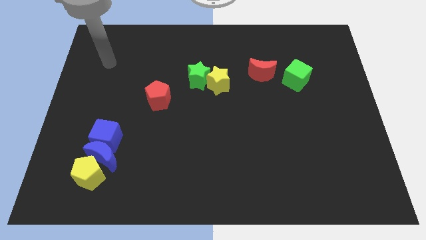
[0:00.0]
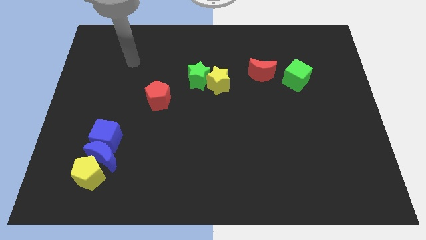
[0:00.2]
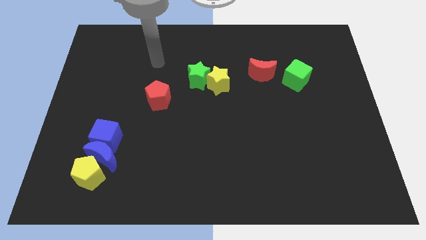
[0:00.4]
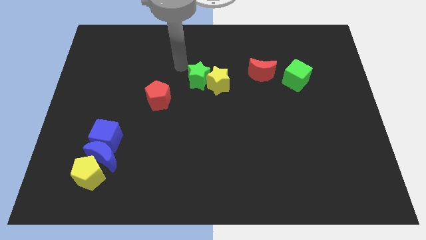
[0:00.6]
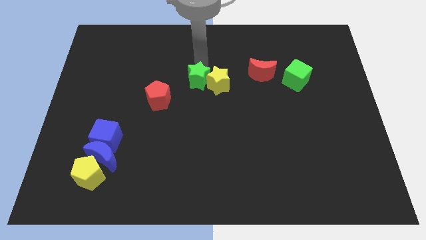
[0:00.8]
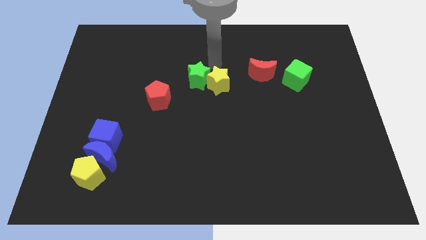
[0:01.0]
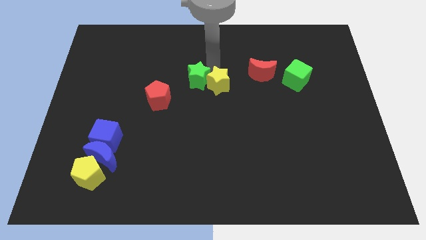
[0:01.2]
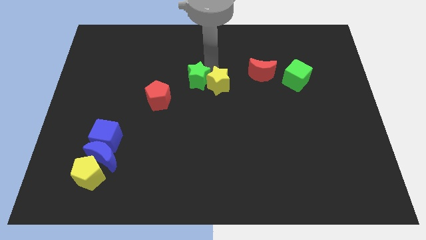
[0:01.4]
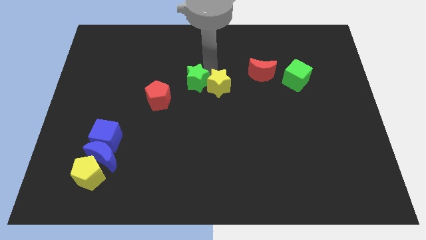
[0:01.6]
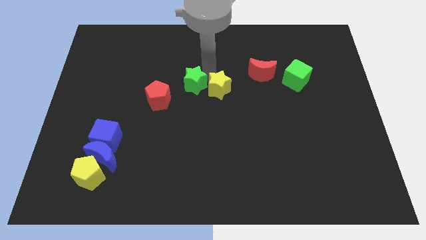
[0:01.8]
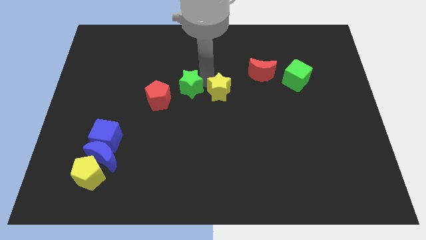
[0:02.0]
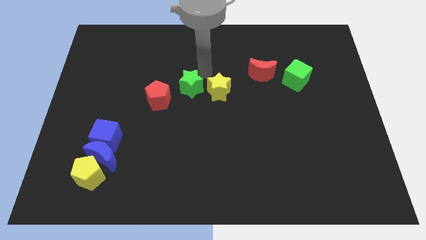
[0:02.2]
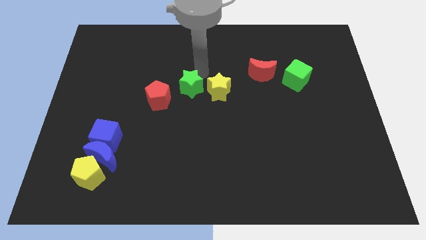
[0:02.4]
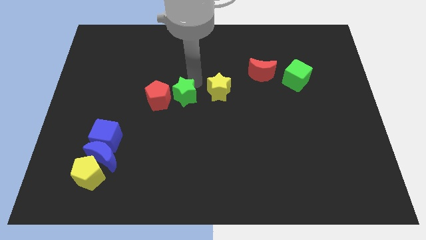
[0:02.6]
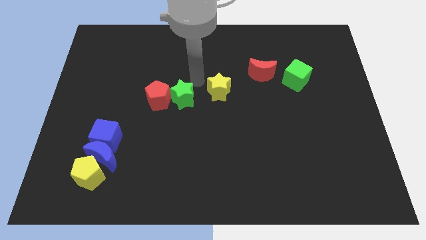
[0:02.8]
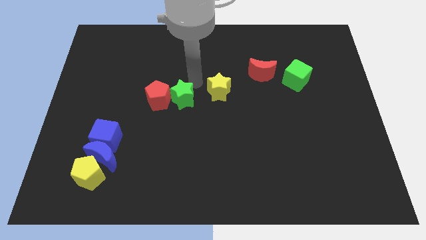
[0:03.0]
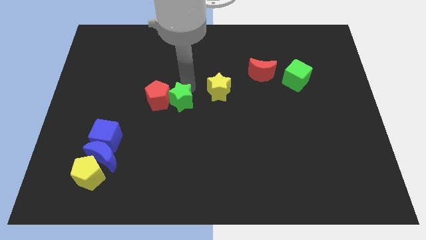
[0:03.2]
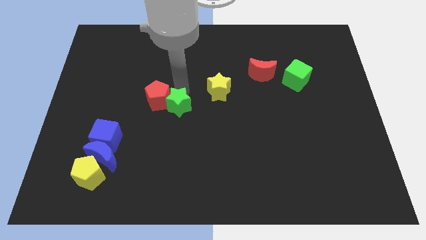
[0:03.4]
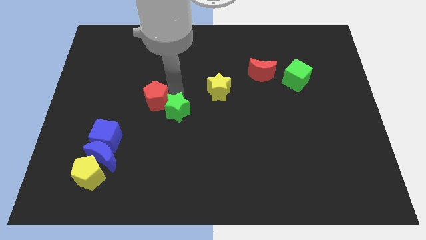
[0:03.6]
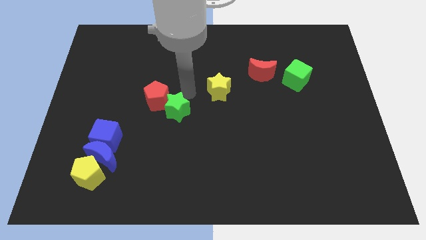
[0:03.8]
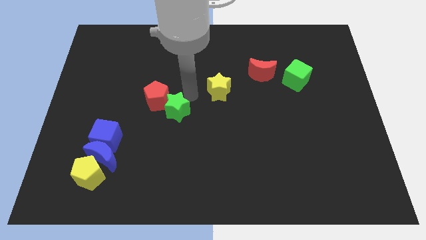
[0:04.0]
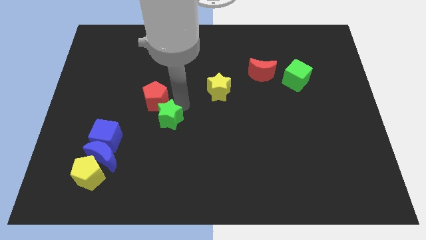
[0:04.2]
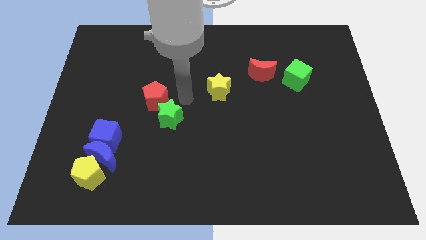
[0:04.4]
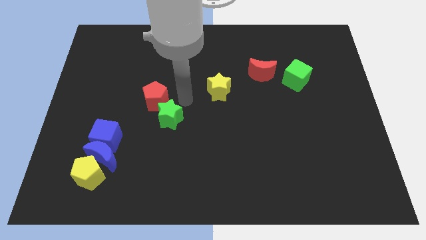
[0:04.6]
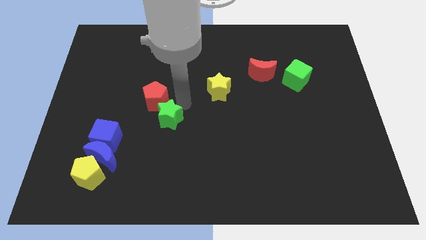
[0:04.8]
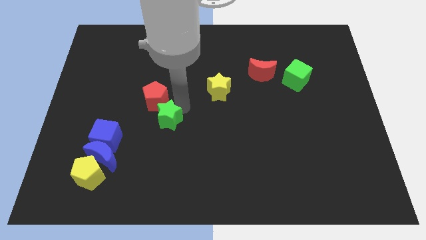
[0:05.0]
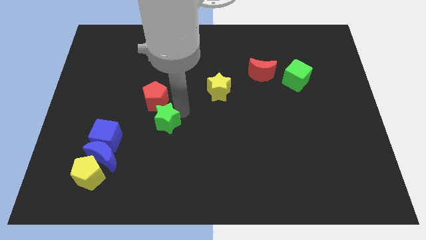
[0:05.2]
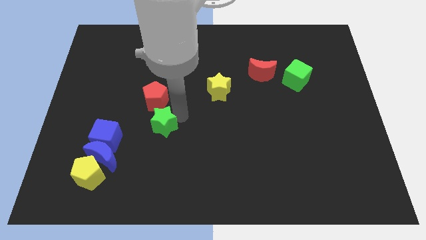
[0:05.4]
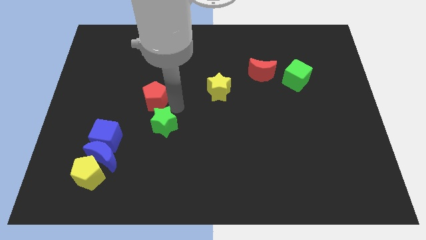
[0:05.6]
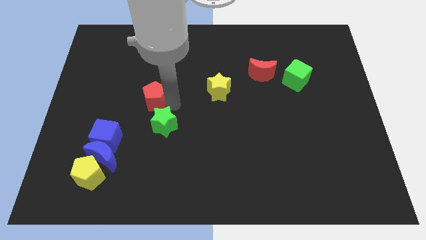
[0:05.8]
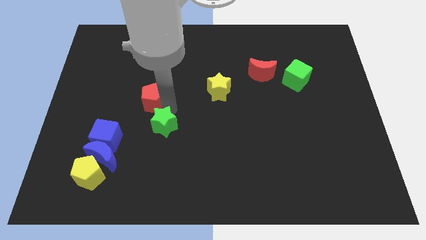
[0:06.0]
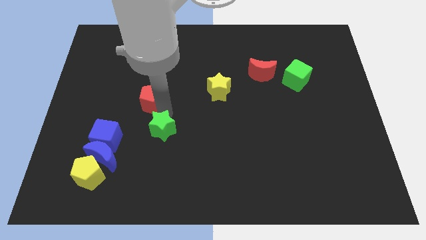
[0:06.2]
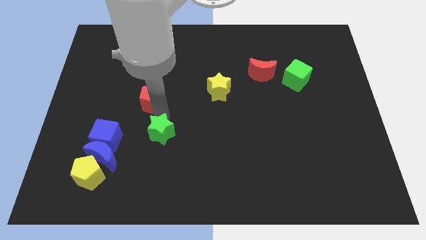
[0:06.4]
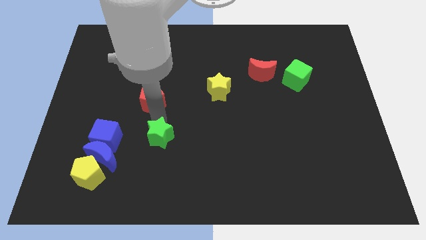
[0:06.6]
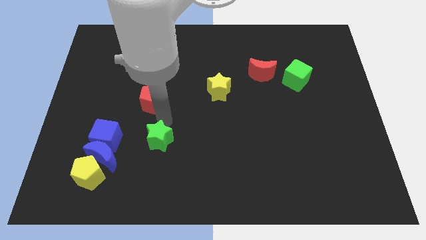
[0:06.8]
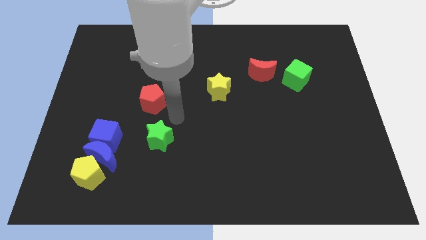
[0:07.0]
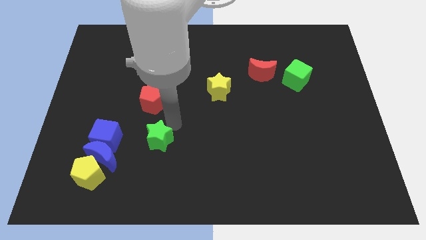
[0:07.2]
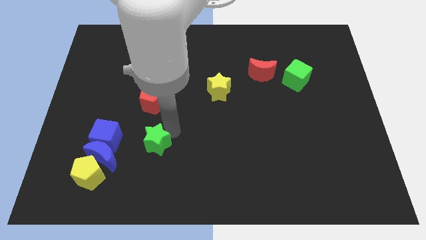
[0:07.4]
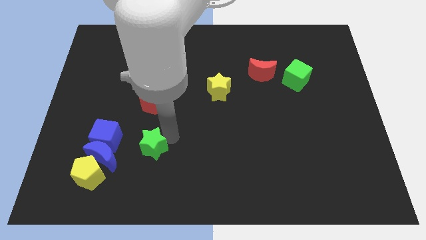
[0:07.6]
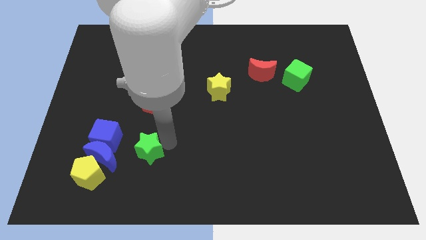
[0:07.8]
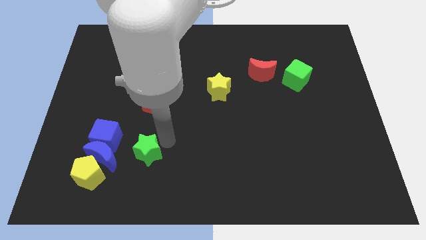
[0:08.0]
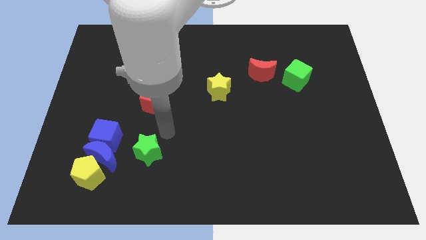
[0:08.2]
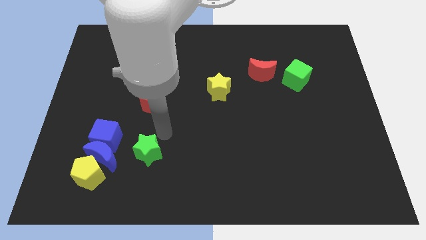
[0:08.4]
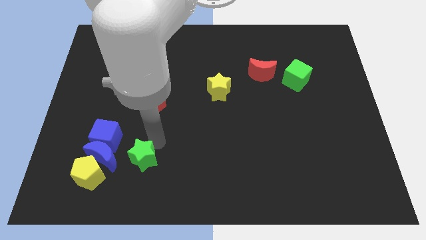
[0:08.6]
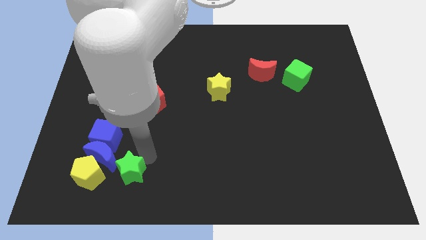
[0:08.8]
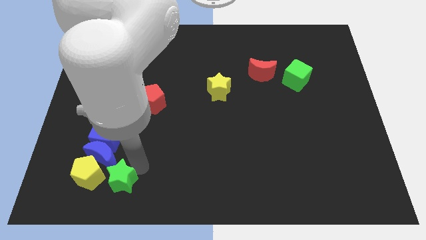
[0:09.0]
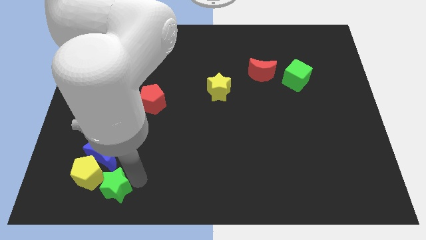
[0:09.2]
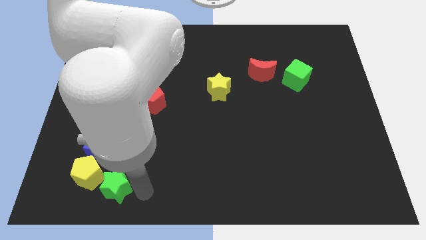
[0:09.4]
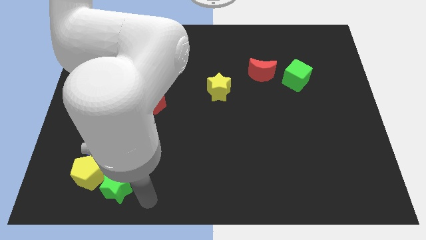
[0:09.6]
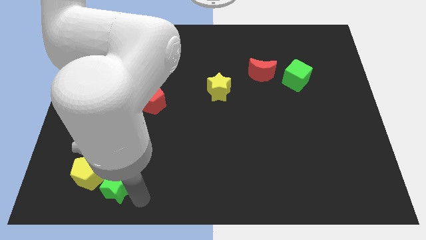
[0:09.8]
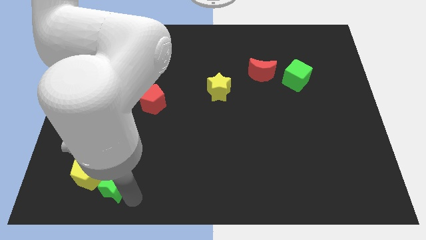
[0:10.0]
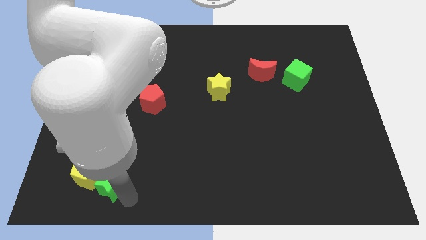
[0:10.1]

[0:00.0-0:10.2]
move the green star to the yellow pentagon

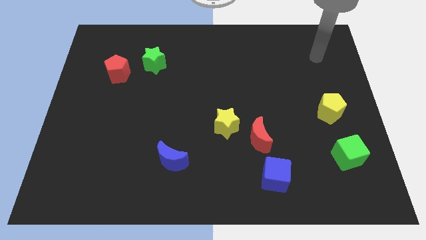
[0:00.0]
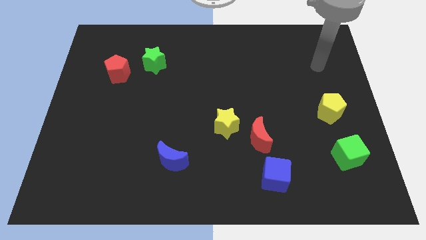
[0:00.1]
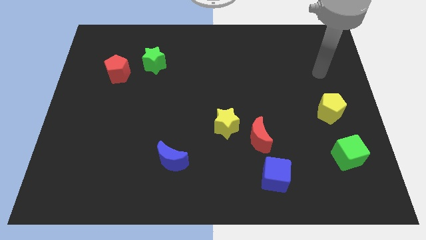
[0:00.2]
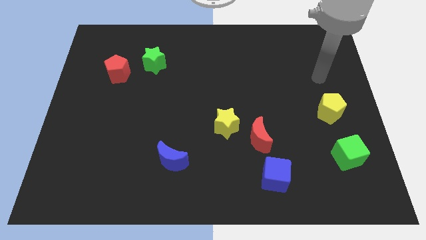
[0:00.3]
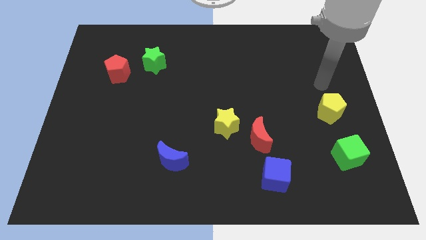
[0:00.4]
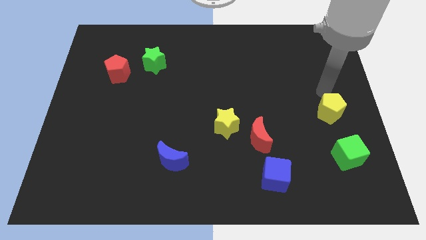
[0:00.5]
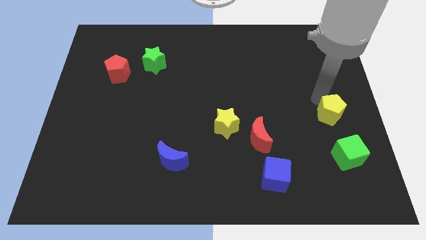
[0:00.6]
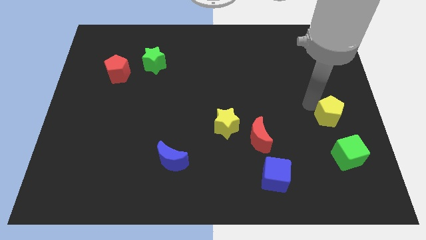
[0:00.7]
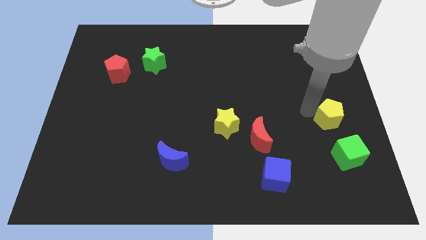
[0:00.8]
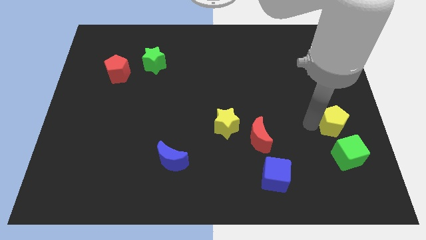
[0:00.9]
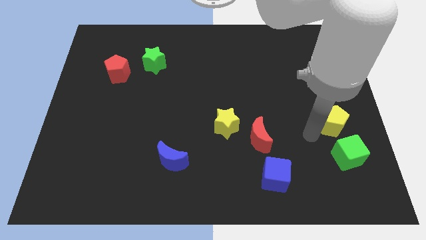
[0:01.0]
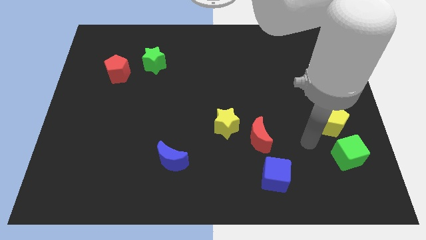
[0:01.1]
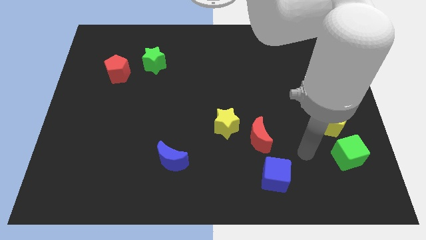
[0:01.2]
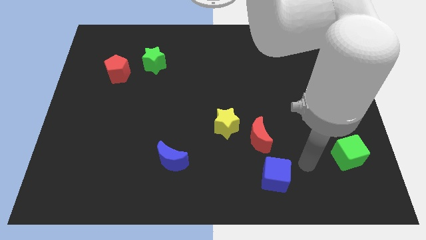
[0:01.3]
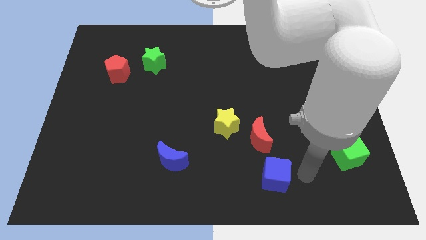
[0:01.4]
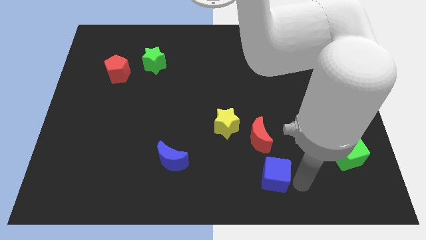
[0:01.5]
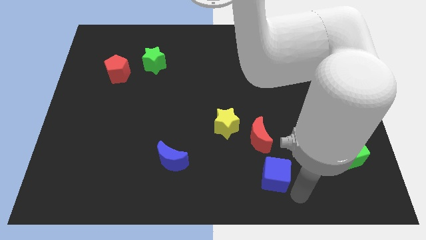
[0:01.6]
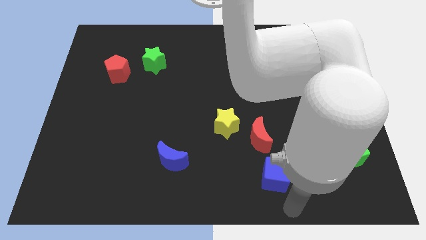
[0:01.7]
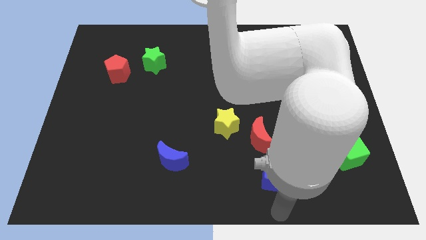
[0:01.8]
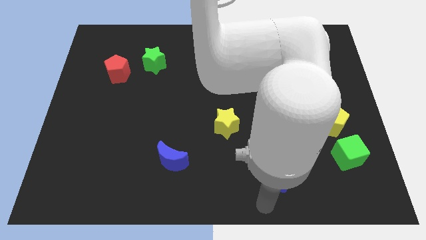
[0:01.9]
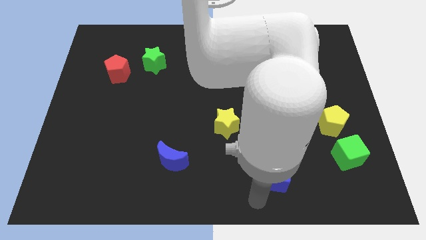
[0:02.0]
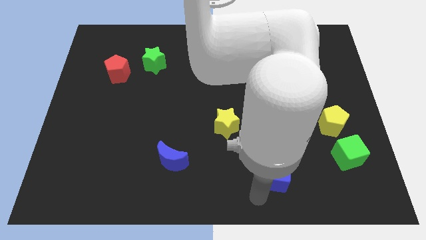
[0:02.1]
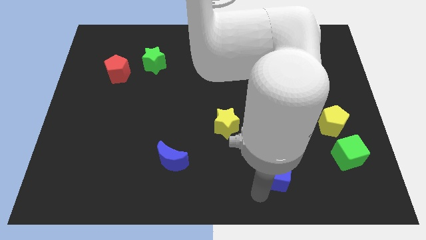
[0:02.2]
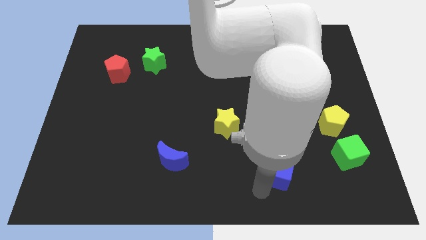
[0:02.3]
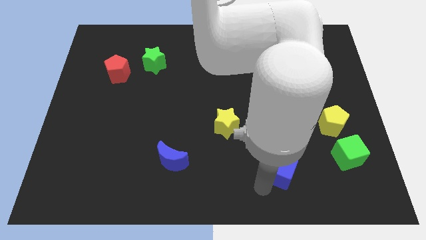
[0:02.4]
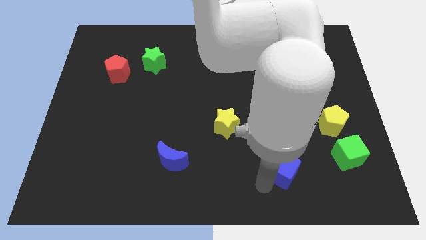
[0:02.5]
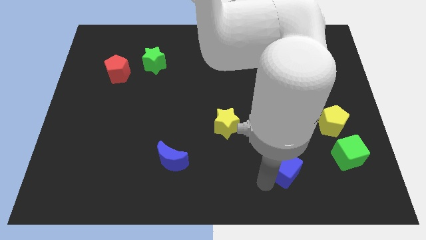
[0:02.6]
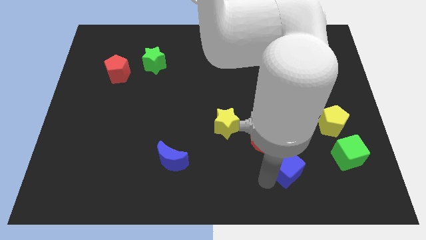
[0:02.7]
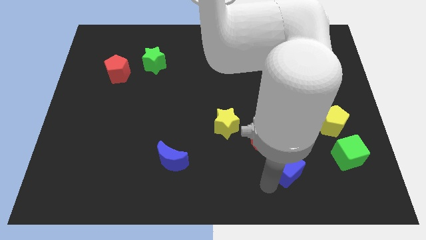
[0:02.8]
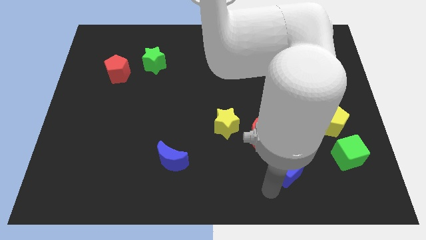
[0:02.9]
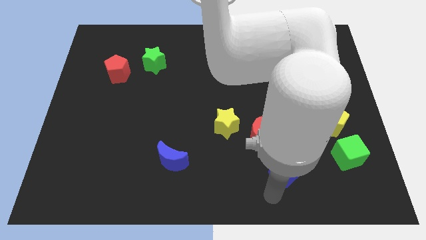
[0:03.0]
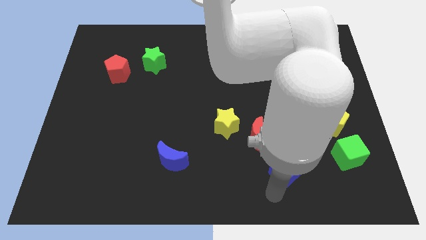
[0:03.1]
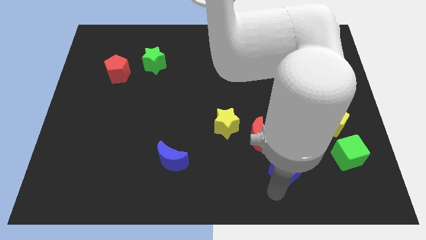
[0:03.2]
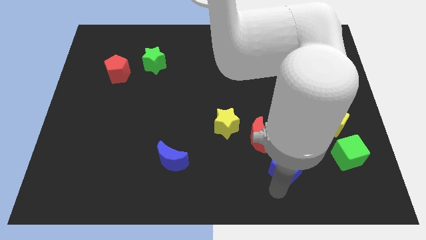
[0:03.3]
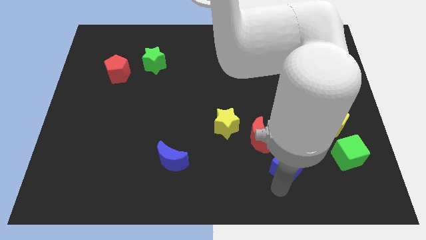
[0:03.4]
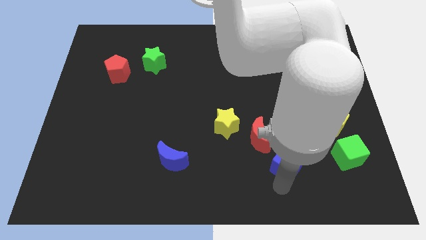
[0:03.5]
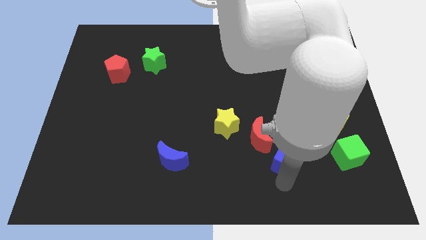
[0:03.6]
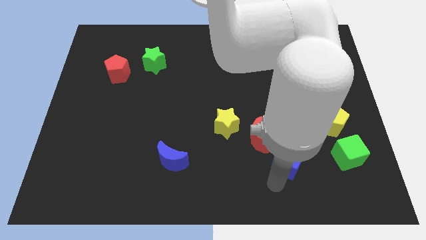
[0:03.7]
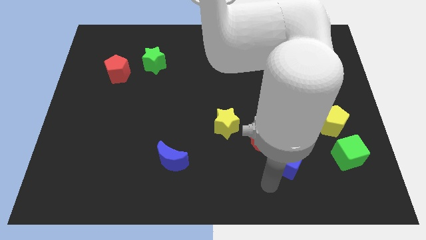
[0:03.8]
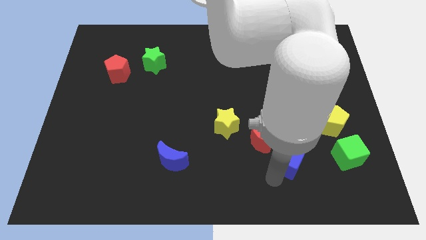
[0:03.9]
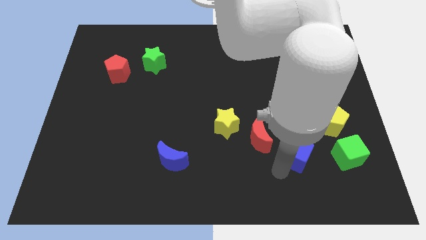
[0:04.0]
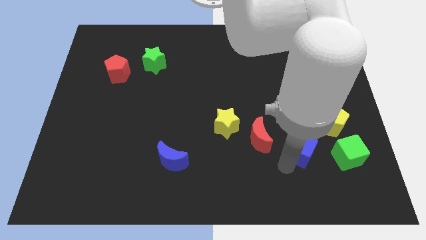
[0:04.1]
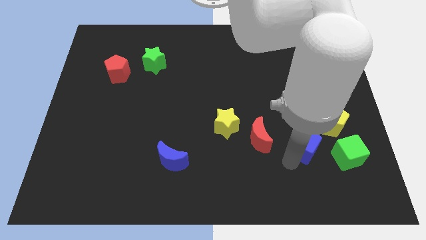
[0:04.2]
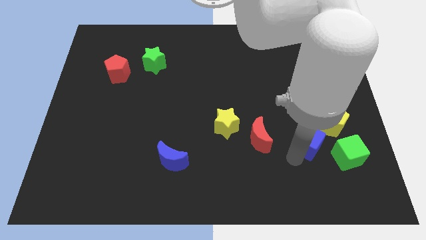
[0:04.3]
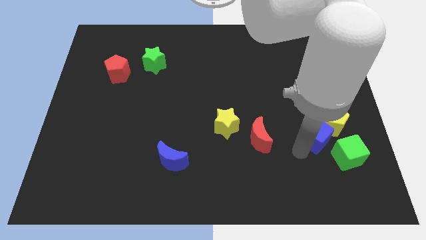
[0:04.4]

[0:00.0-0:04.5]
slide the blue cube to the yellow pentagon
